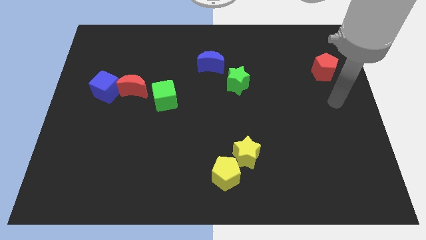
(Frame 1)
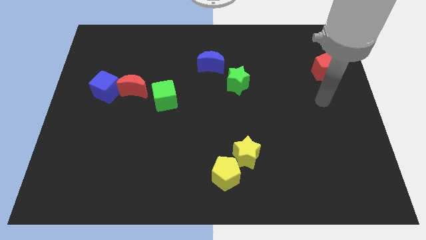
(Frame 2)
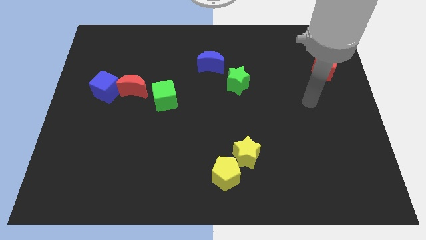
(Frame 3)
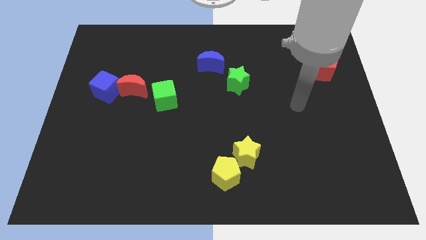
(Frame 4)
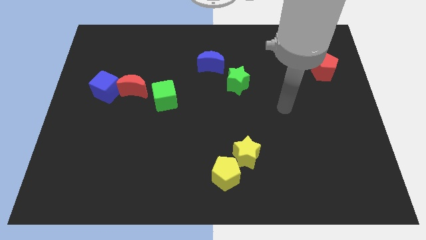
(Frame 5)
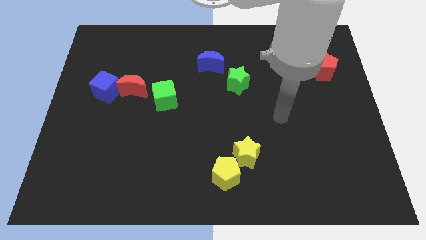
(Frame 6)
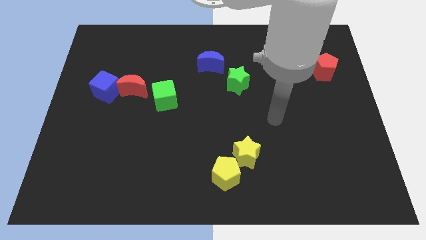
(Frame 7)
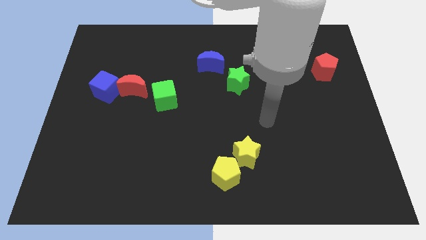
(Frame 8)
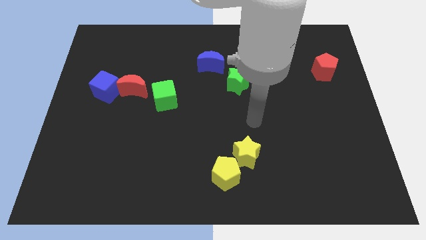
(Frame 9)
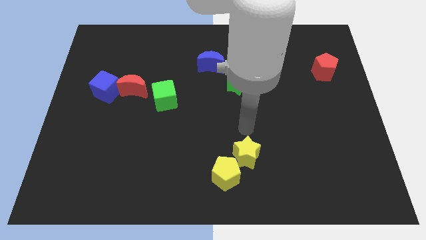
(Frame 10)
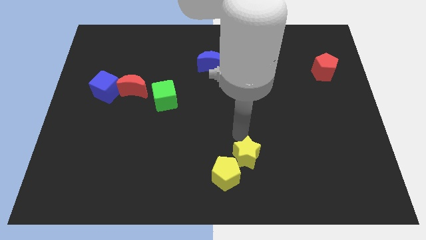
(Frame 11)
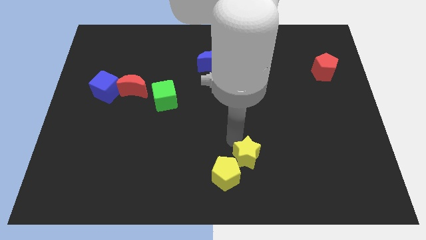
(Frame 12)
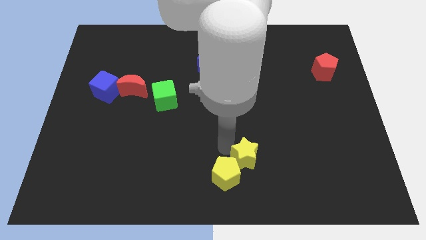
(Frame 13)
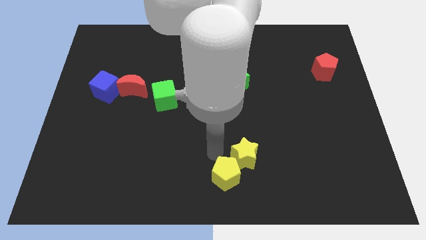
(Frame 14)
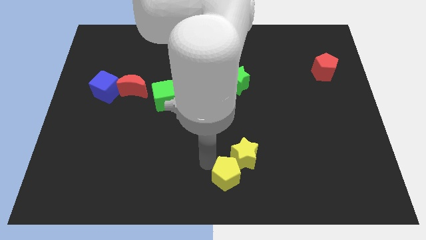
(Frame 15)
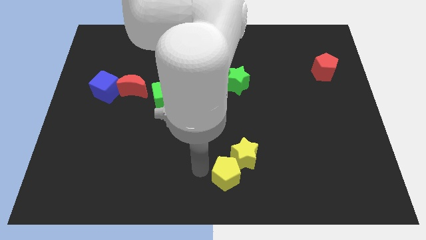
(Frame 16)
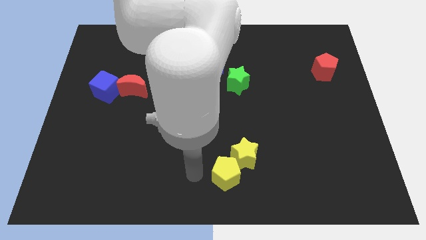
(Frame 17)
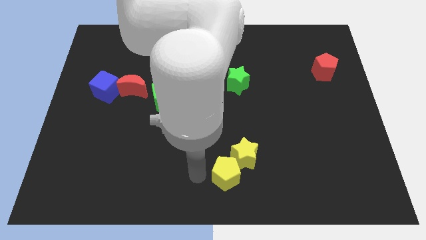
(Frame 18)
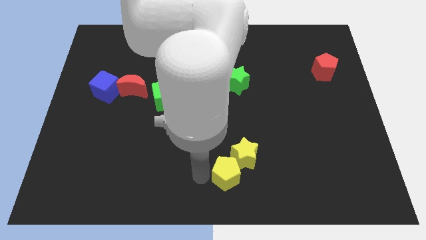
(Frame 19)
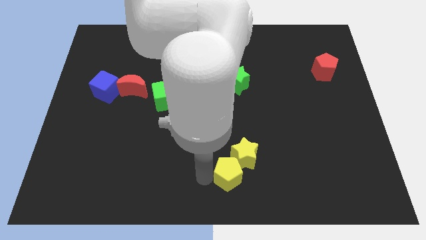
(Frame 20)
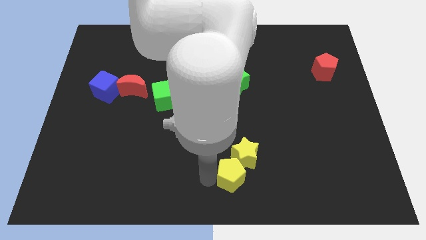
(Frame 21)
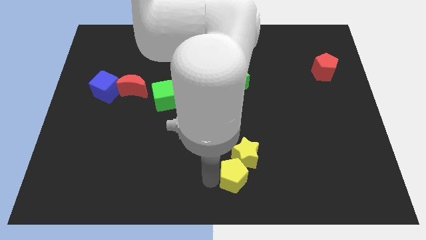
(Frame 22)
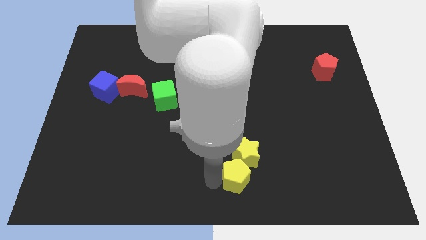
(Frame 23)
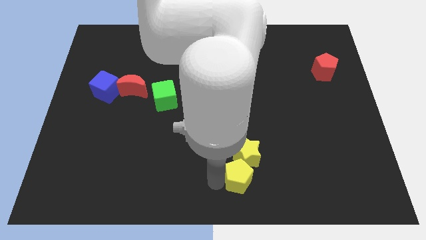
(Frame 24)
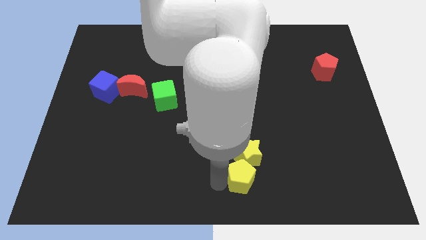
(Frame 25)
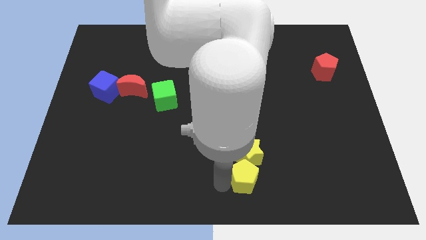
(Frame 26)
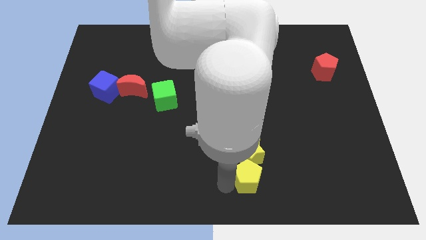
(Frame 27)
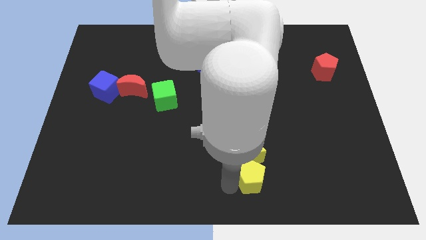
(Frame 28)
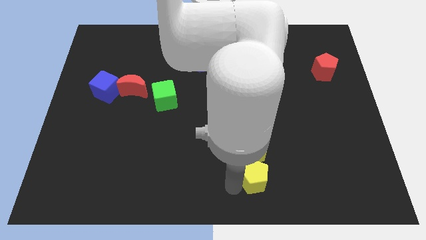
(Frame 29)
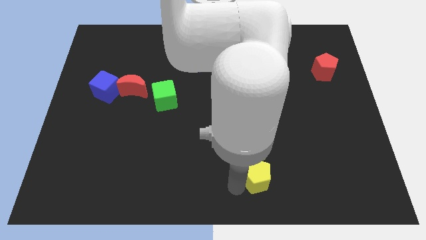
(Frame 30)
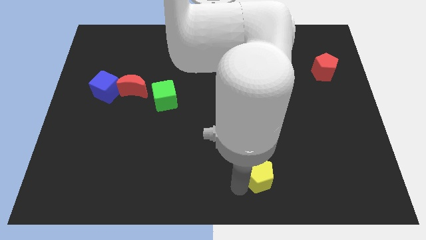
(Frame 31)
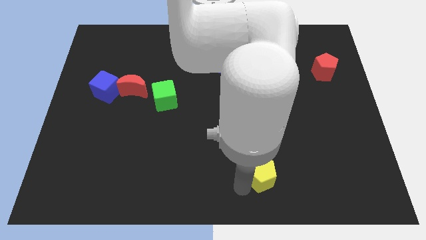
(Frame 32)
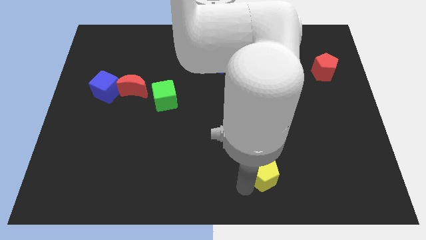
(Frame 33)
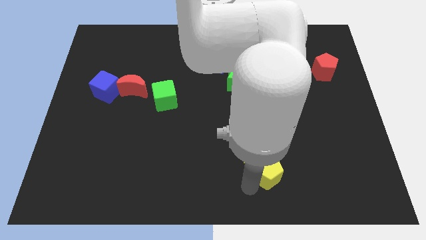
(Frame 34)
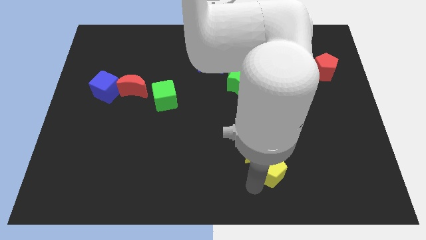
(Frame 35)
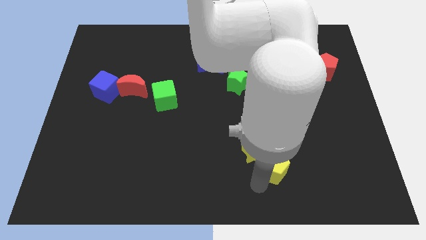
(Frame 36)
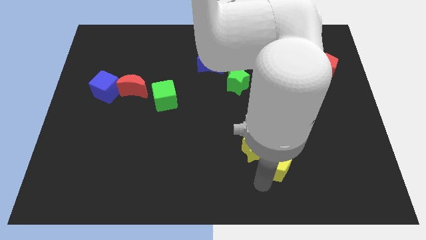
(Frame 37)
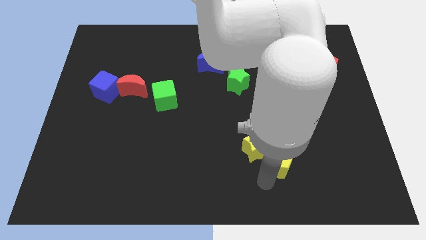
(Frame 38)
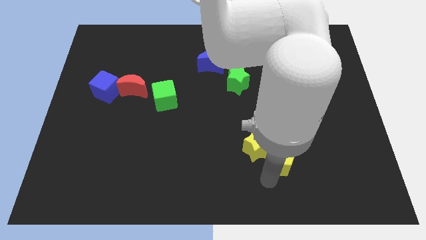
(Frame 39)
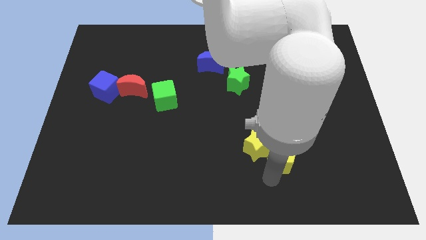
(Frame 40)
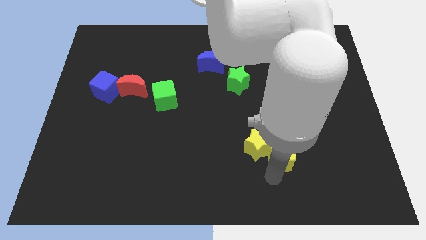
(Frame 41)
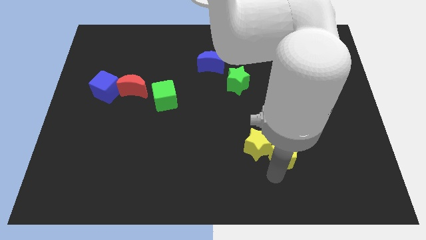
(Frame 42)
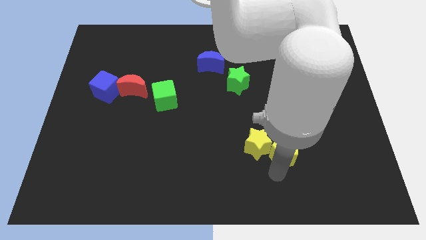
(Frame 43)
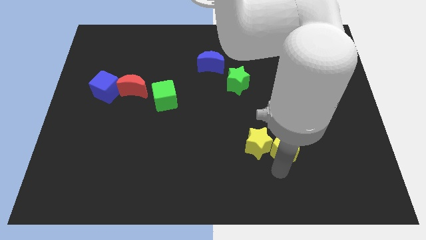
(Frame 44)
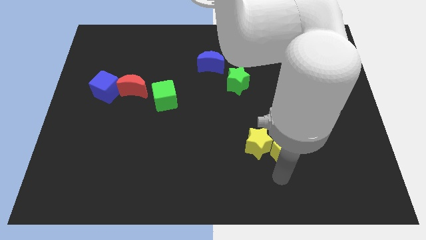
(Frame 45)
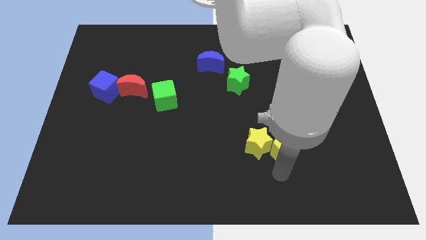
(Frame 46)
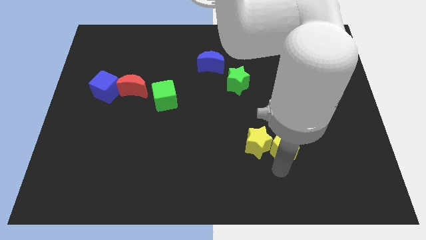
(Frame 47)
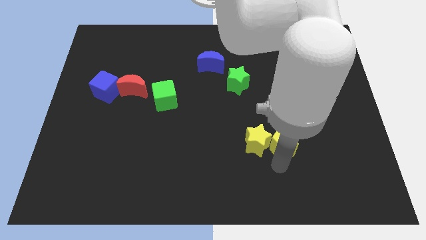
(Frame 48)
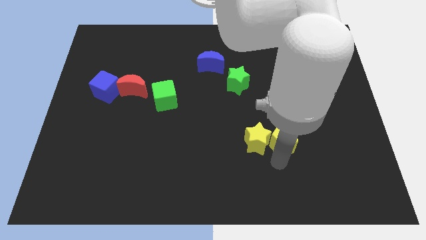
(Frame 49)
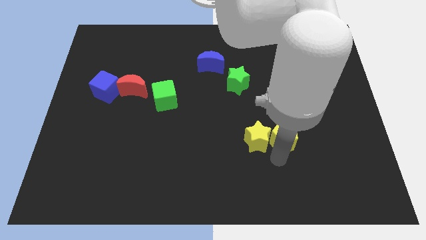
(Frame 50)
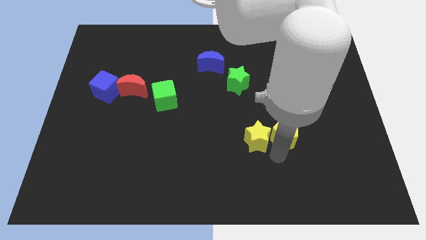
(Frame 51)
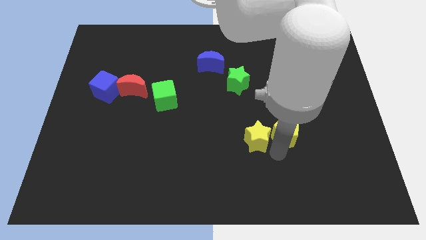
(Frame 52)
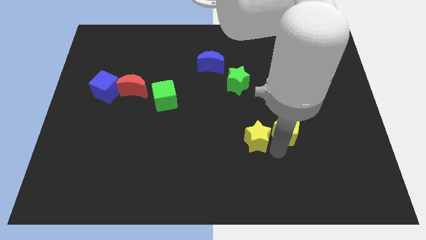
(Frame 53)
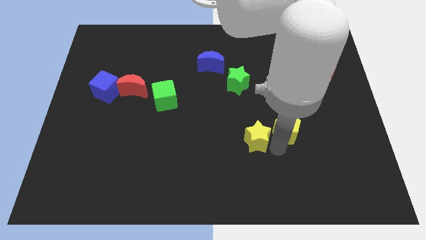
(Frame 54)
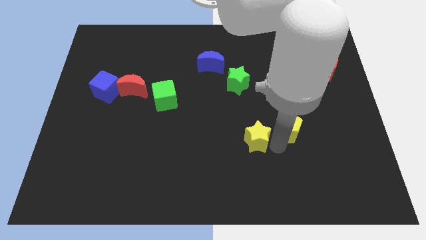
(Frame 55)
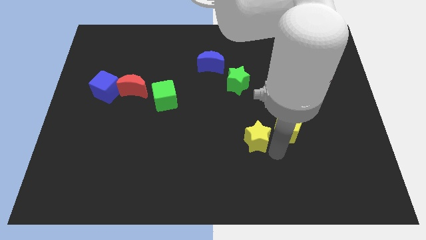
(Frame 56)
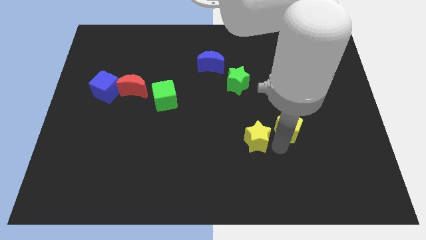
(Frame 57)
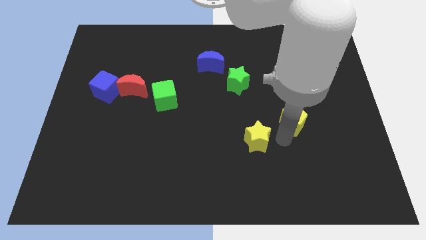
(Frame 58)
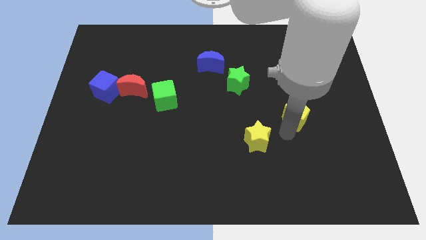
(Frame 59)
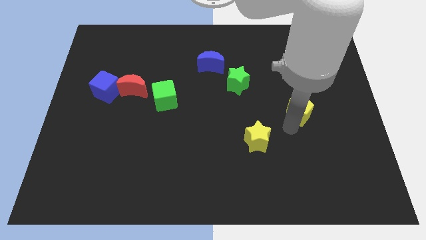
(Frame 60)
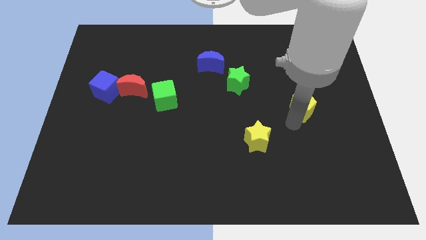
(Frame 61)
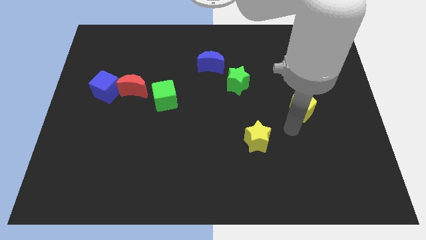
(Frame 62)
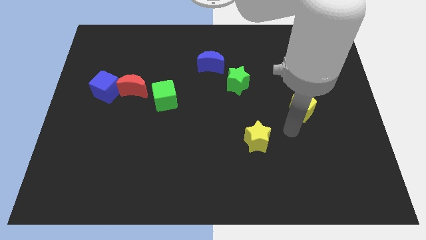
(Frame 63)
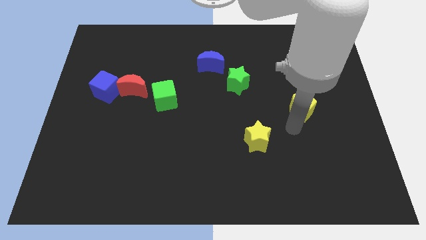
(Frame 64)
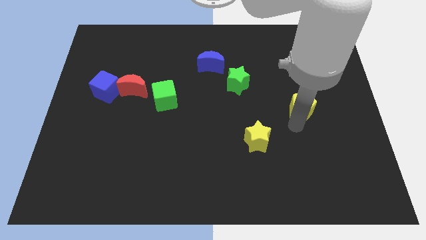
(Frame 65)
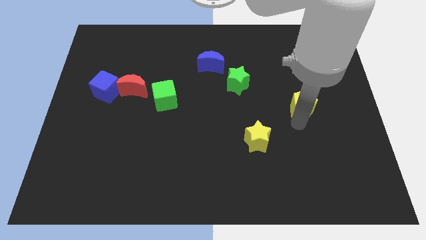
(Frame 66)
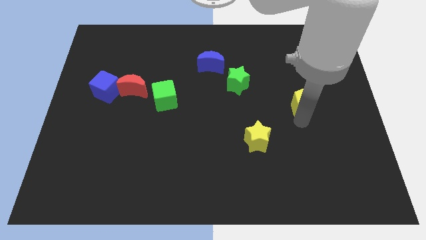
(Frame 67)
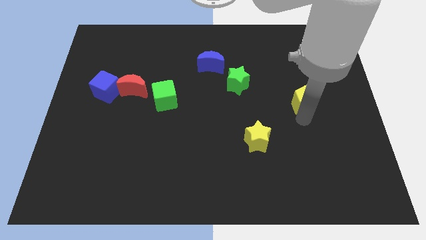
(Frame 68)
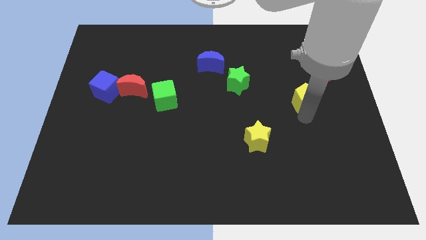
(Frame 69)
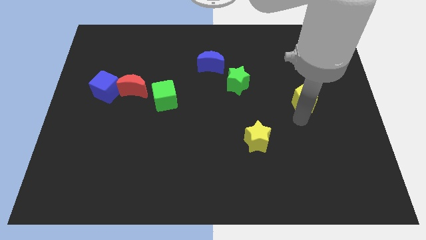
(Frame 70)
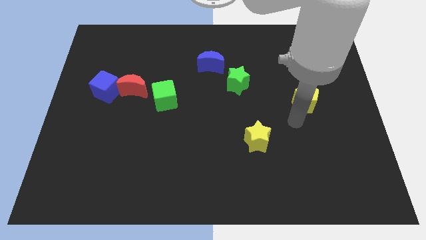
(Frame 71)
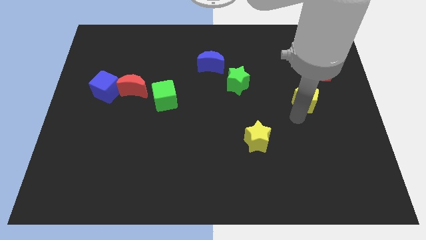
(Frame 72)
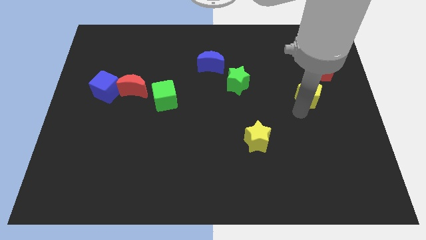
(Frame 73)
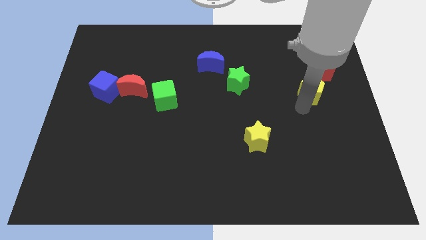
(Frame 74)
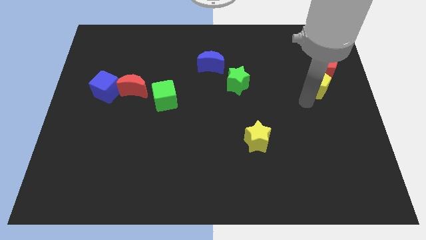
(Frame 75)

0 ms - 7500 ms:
slide the yellow pentagon next to the red pentagon
